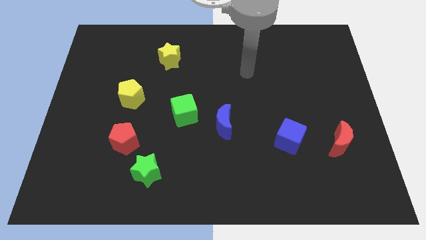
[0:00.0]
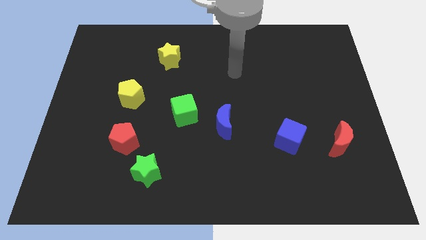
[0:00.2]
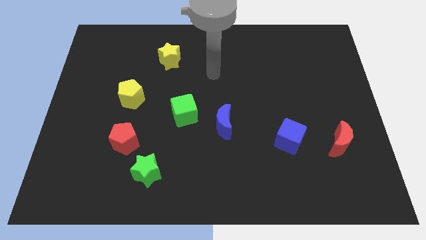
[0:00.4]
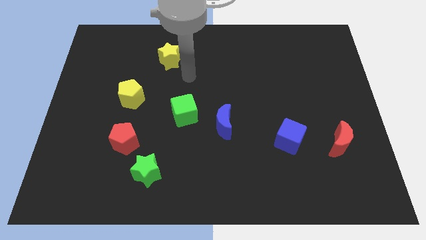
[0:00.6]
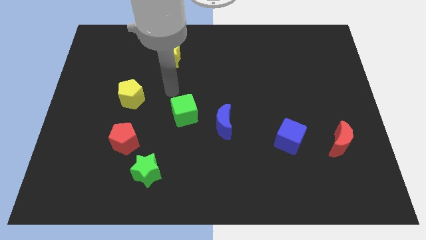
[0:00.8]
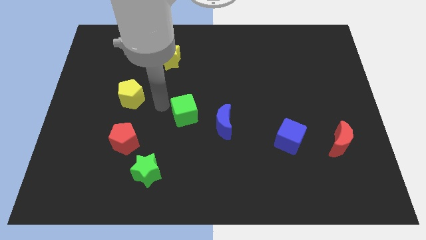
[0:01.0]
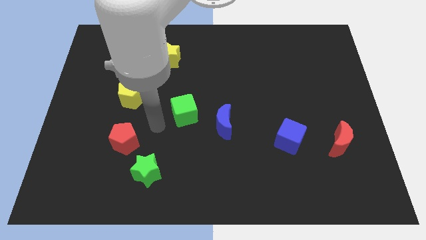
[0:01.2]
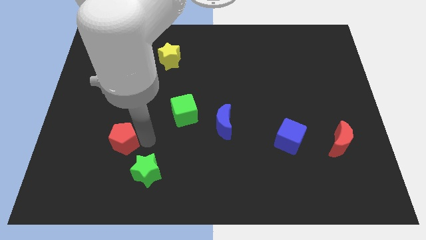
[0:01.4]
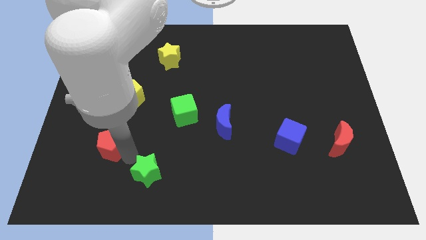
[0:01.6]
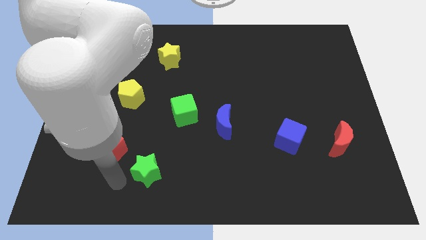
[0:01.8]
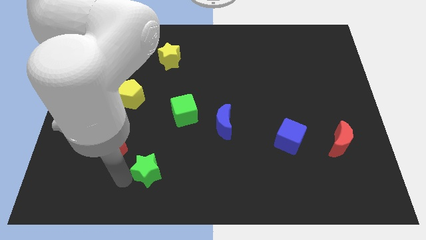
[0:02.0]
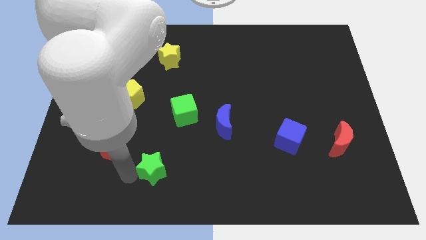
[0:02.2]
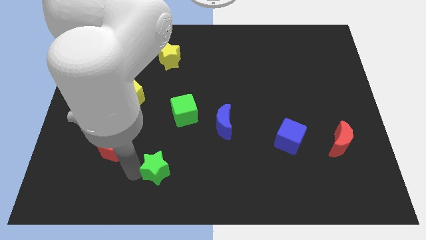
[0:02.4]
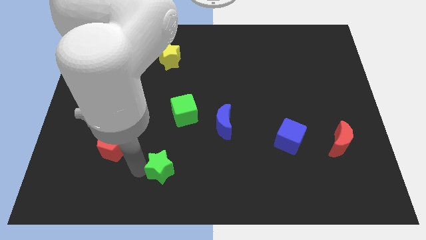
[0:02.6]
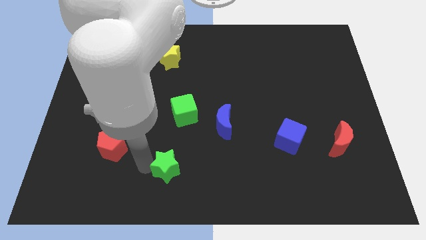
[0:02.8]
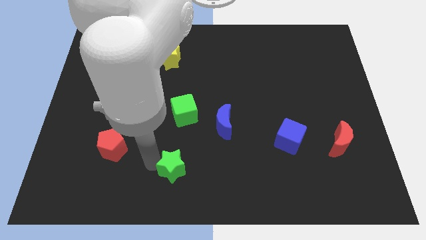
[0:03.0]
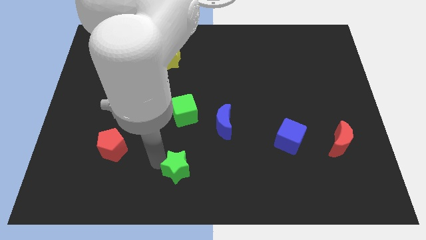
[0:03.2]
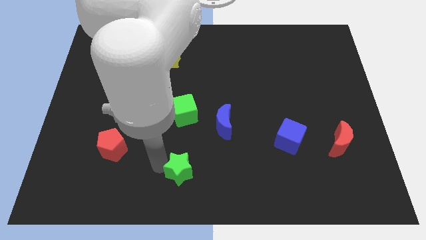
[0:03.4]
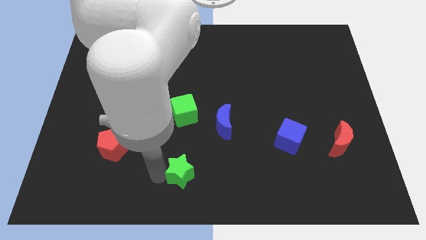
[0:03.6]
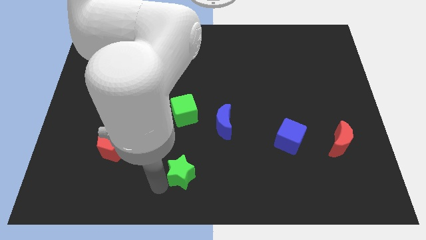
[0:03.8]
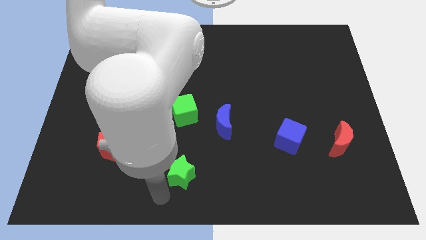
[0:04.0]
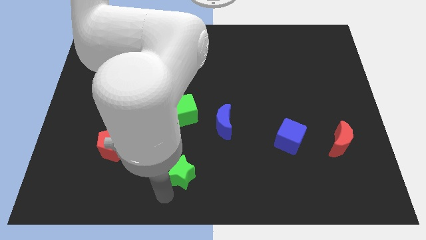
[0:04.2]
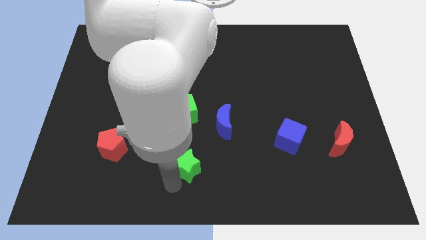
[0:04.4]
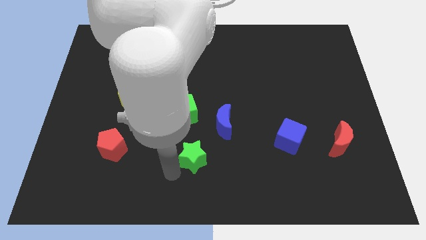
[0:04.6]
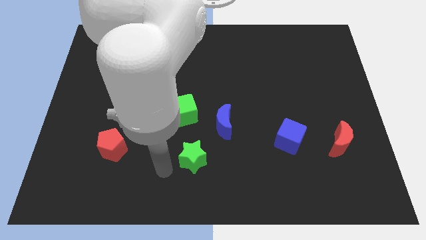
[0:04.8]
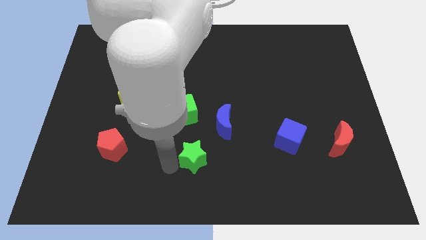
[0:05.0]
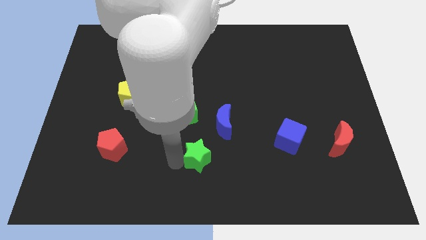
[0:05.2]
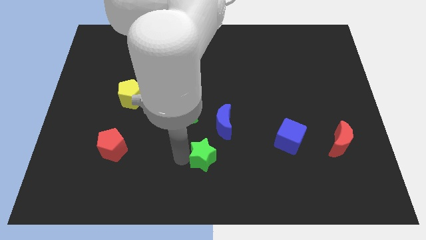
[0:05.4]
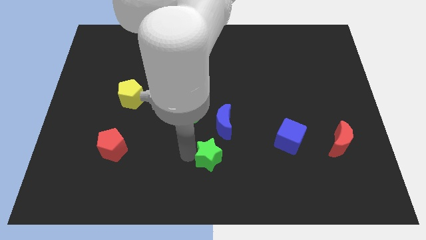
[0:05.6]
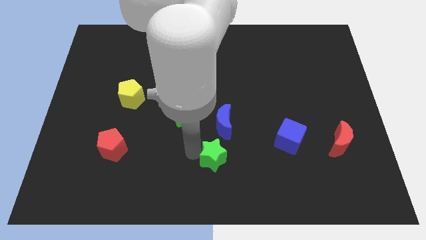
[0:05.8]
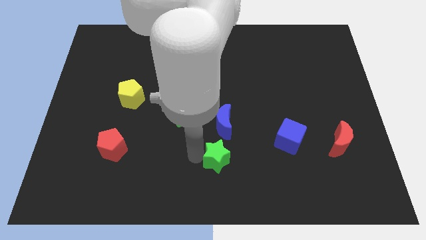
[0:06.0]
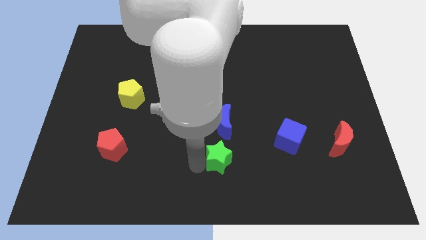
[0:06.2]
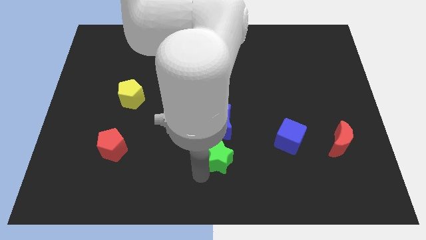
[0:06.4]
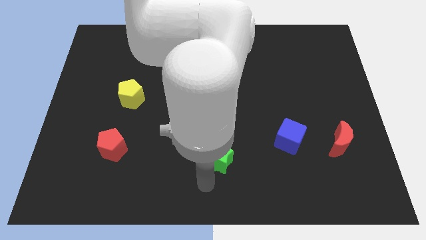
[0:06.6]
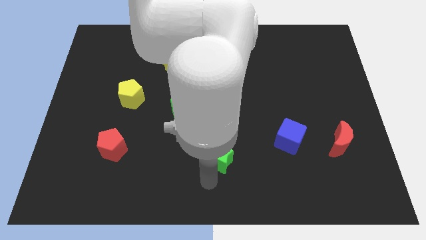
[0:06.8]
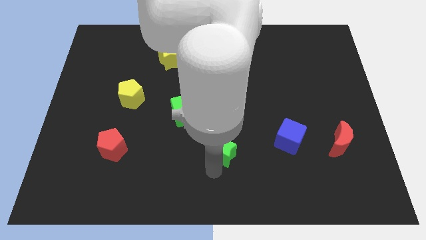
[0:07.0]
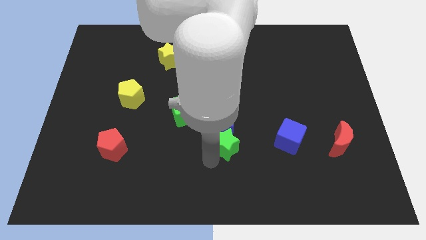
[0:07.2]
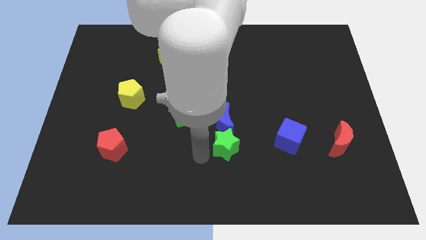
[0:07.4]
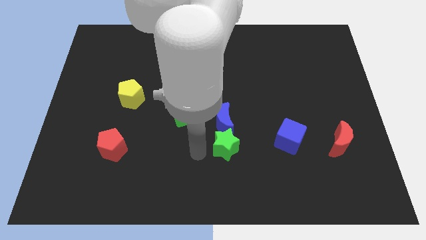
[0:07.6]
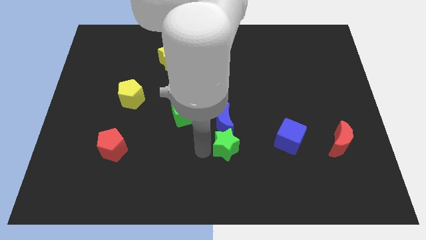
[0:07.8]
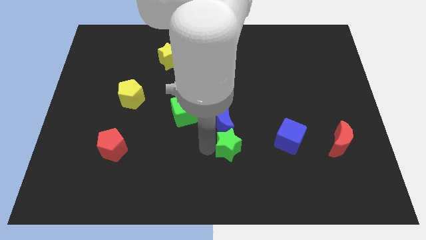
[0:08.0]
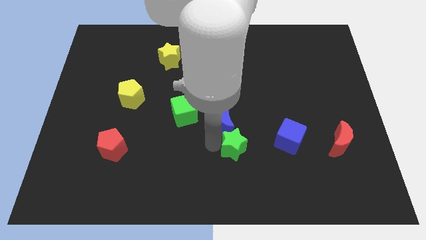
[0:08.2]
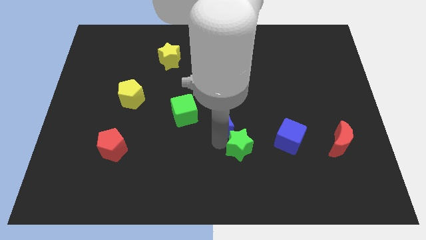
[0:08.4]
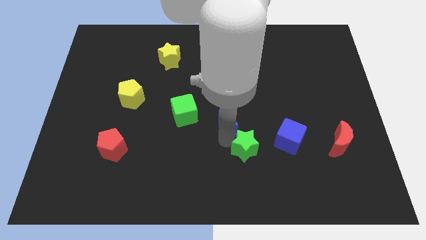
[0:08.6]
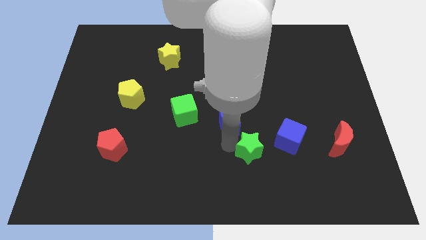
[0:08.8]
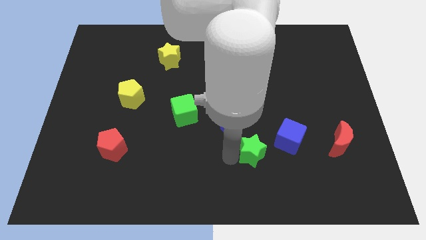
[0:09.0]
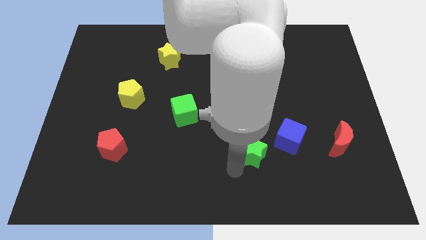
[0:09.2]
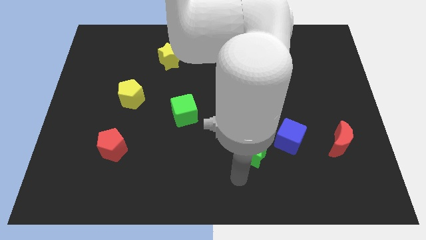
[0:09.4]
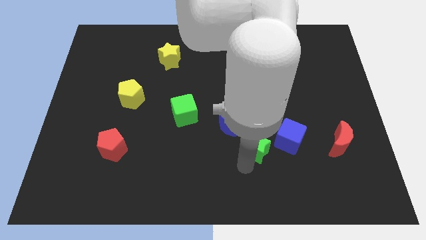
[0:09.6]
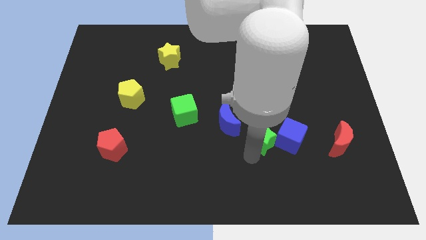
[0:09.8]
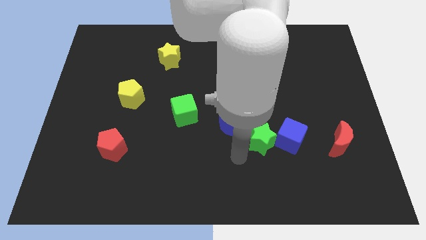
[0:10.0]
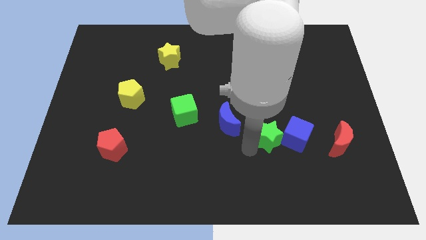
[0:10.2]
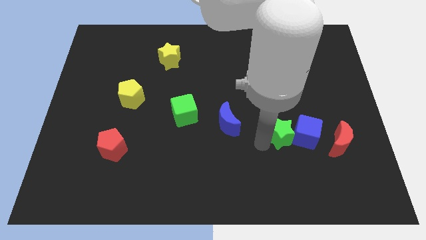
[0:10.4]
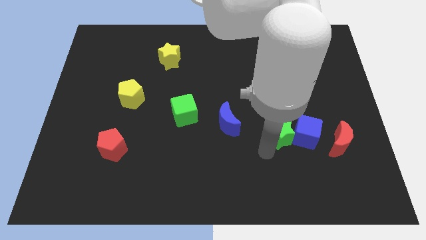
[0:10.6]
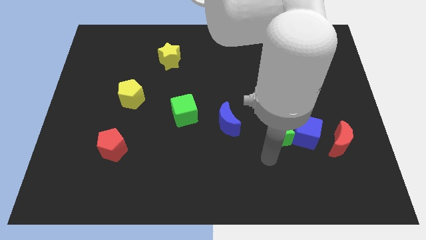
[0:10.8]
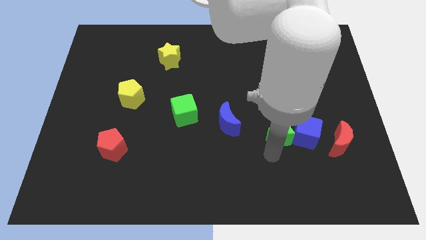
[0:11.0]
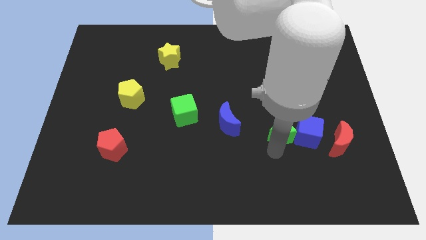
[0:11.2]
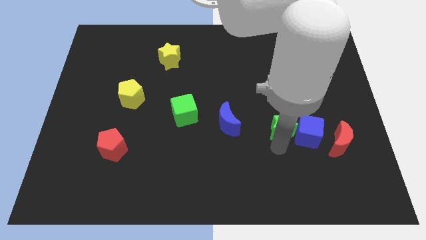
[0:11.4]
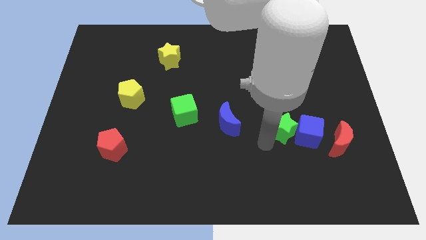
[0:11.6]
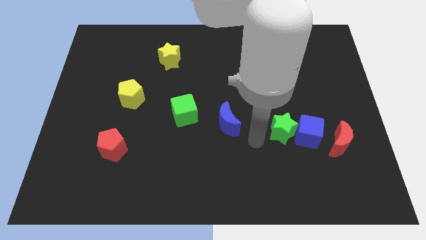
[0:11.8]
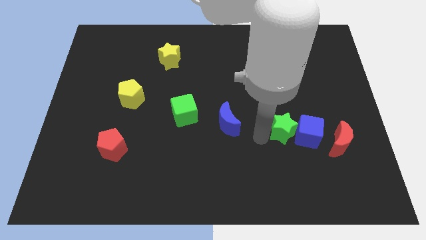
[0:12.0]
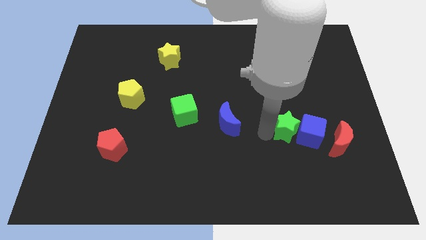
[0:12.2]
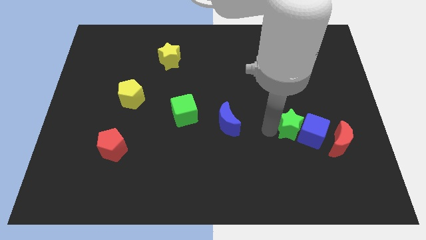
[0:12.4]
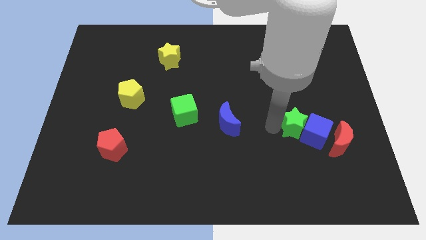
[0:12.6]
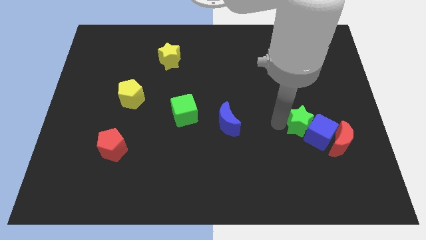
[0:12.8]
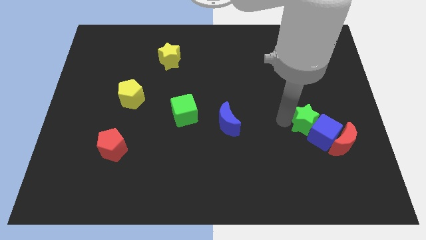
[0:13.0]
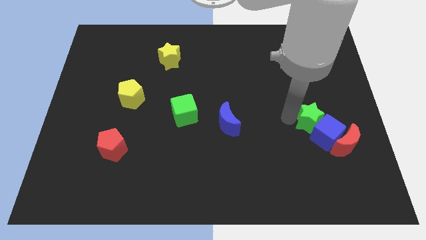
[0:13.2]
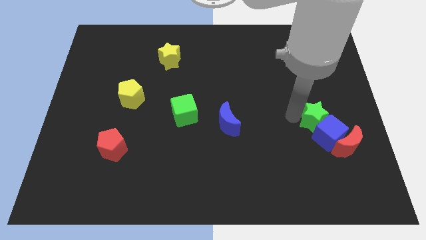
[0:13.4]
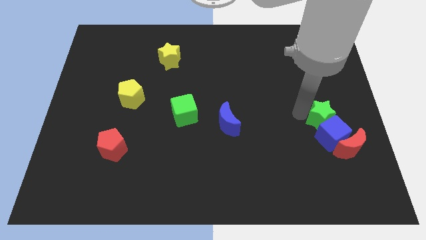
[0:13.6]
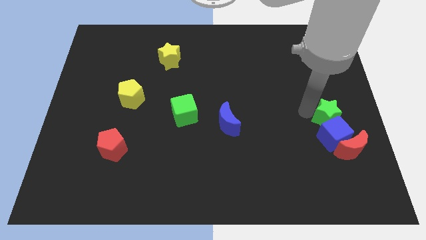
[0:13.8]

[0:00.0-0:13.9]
push the green star to the center right
